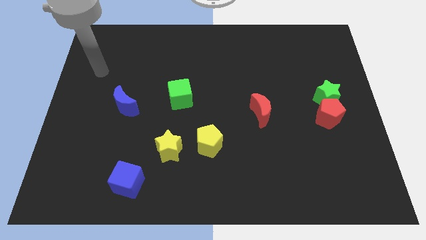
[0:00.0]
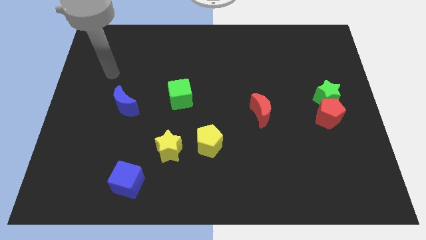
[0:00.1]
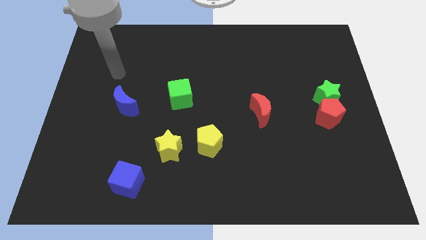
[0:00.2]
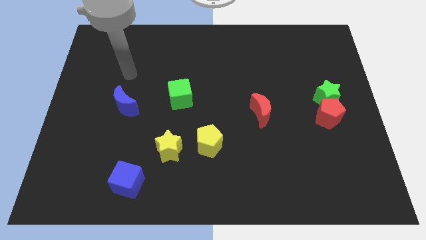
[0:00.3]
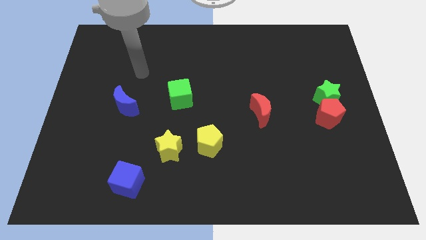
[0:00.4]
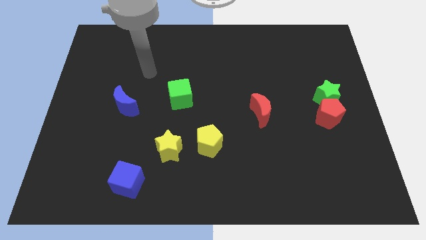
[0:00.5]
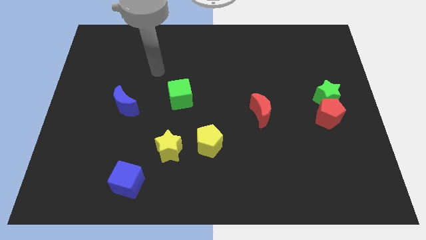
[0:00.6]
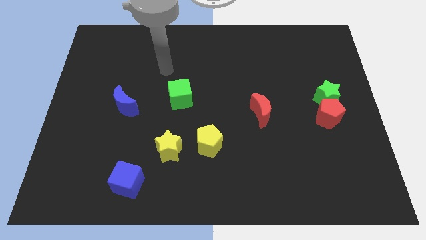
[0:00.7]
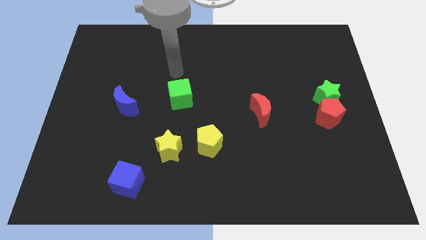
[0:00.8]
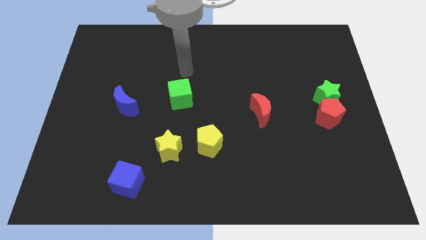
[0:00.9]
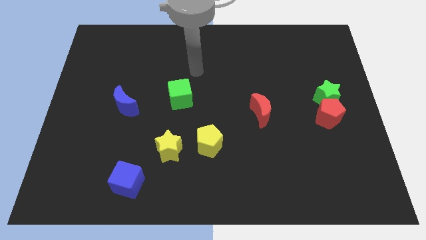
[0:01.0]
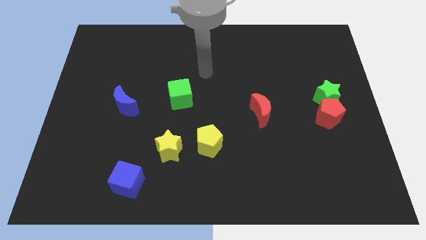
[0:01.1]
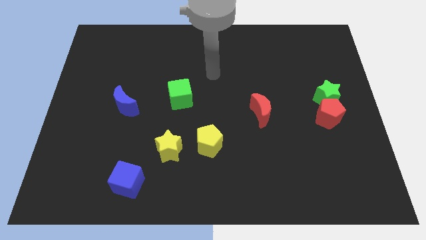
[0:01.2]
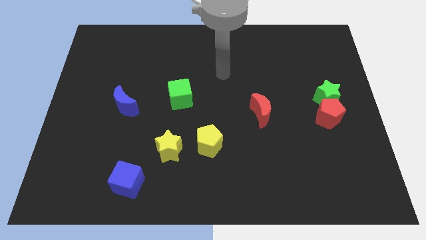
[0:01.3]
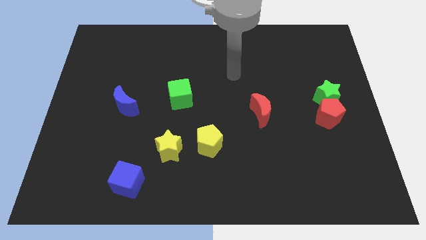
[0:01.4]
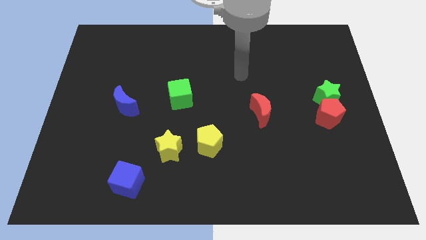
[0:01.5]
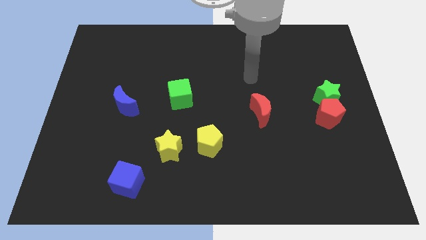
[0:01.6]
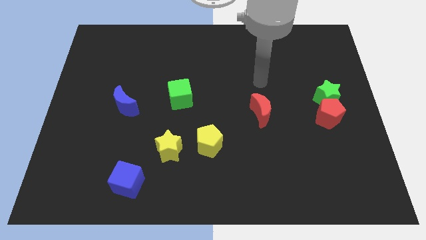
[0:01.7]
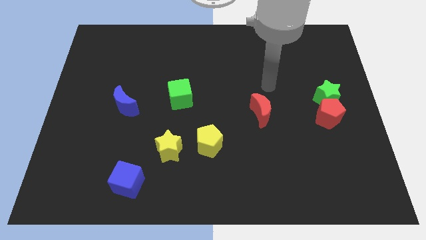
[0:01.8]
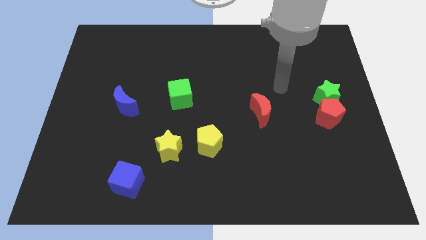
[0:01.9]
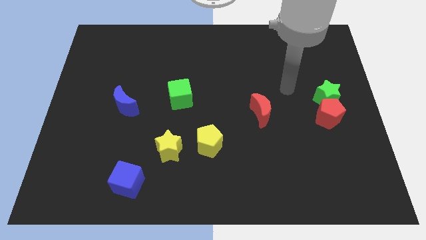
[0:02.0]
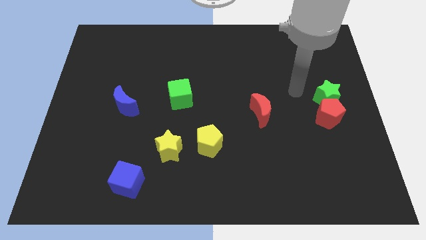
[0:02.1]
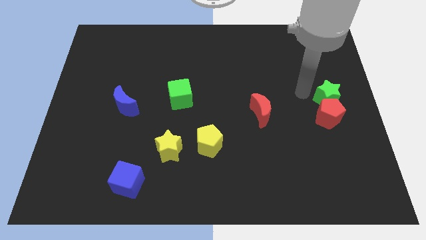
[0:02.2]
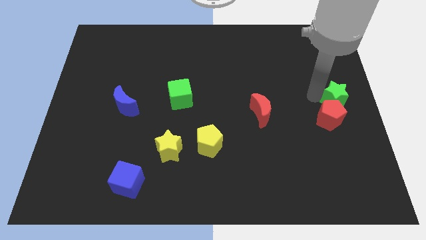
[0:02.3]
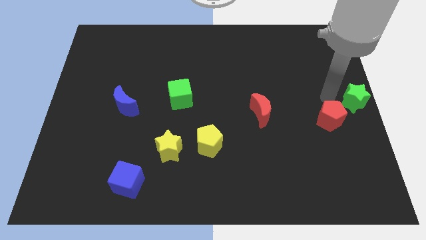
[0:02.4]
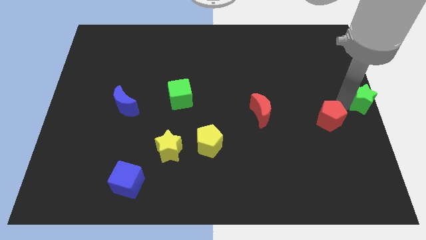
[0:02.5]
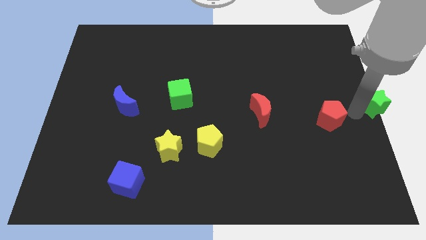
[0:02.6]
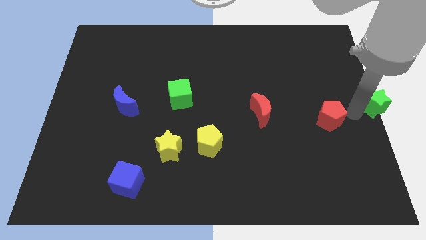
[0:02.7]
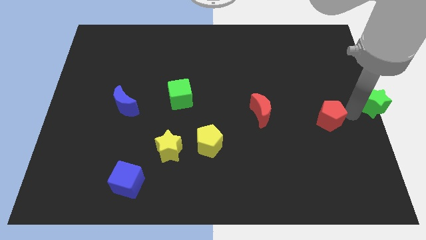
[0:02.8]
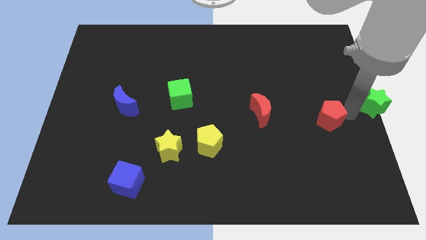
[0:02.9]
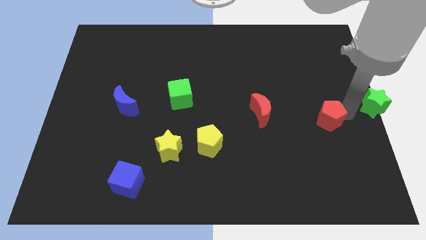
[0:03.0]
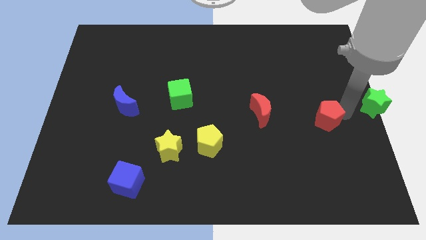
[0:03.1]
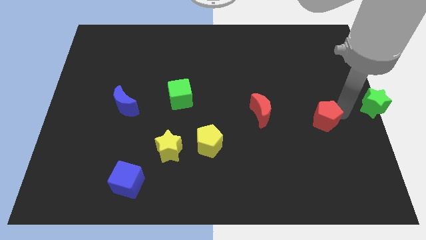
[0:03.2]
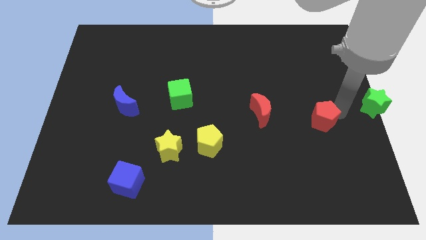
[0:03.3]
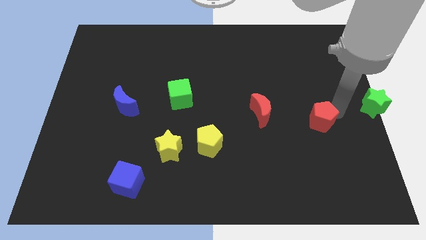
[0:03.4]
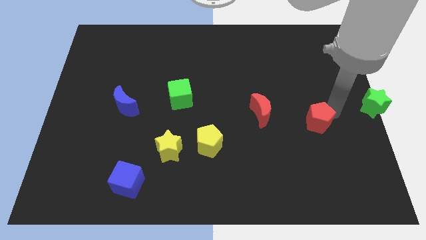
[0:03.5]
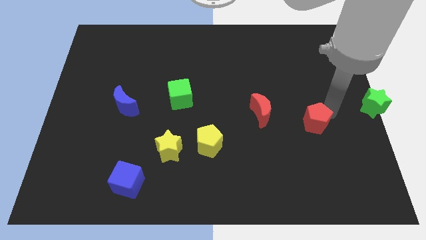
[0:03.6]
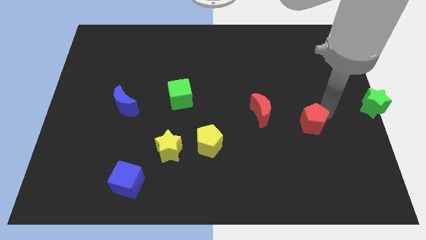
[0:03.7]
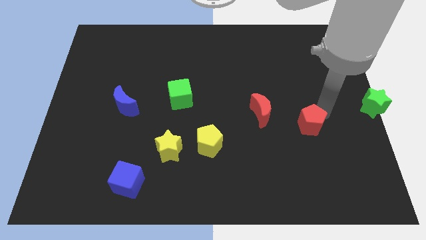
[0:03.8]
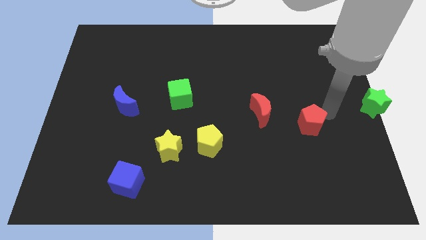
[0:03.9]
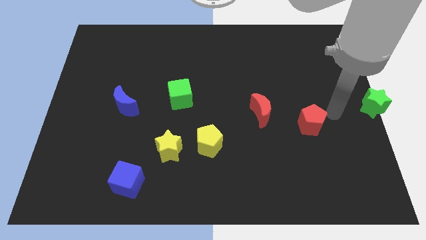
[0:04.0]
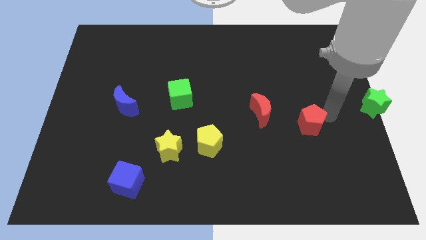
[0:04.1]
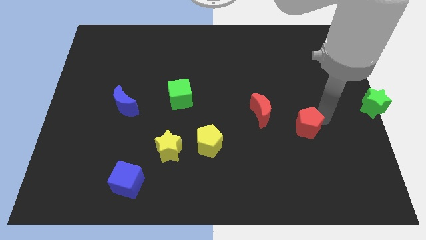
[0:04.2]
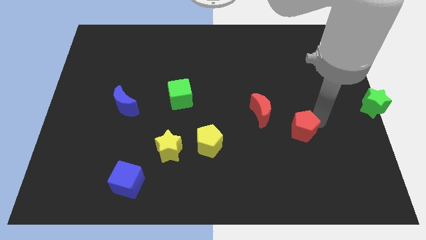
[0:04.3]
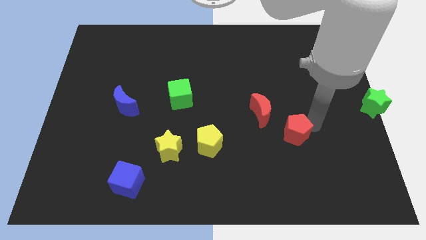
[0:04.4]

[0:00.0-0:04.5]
slightly slide the red pentagon to the left

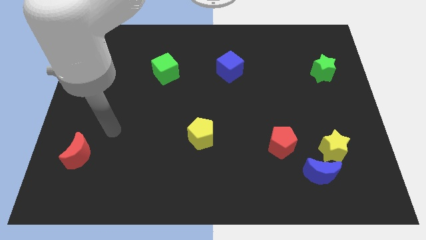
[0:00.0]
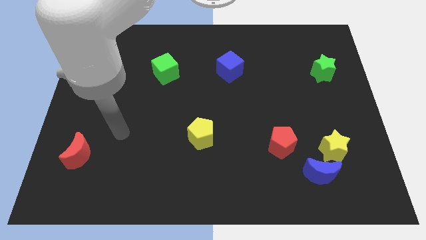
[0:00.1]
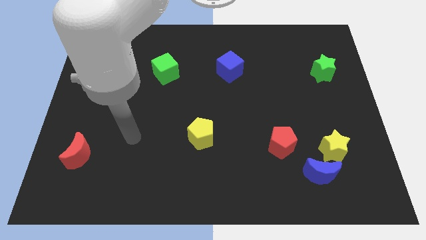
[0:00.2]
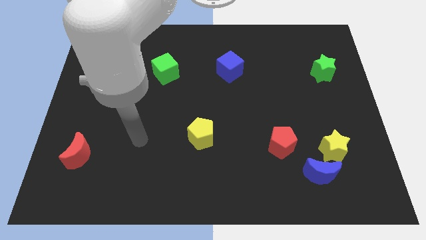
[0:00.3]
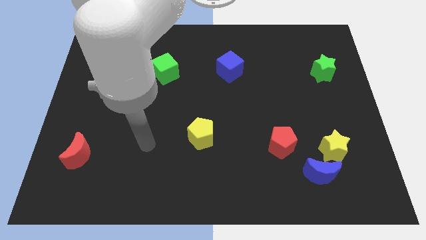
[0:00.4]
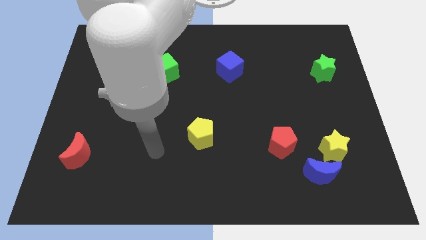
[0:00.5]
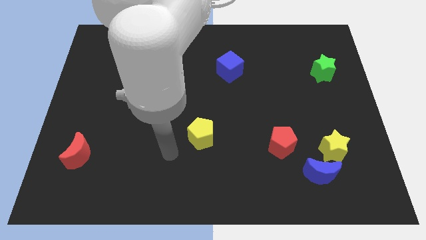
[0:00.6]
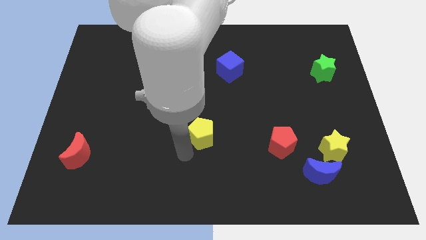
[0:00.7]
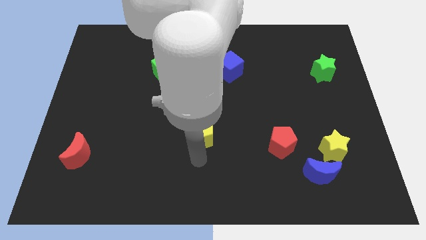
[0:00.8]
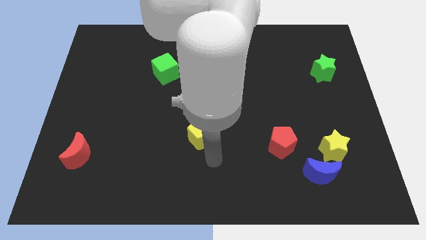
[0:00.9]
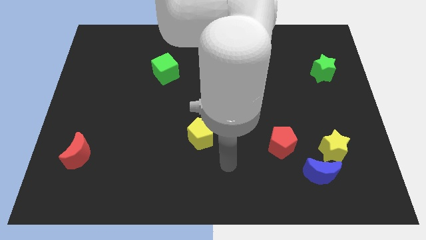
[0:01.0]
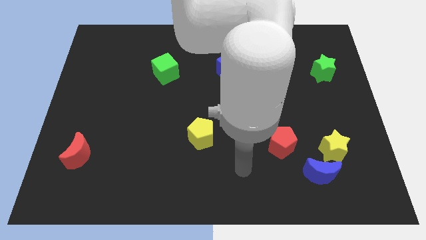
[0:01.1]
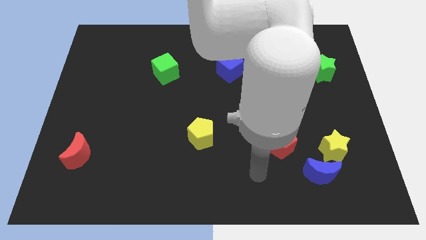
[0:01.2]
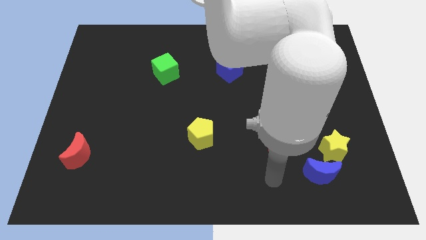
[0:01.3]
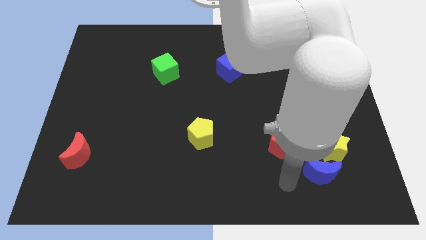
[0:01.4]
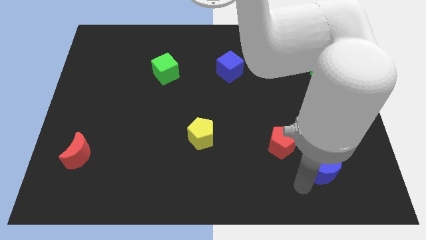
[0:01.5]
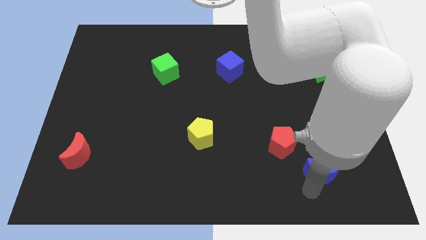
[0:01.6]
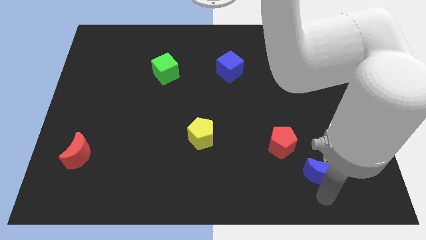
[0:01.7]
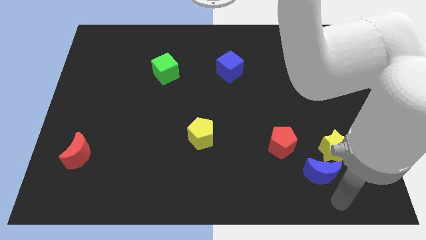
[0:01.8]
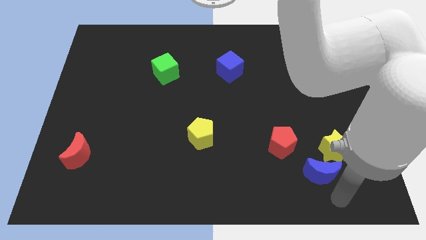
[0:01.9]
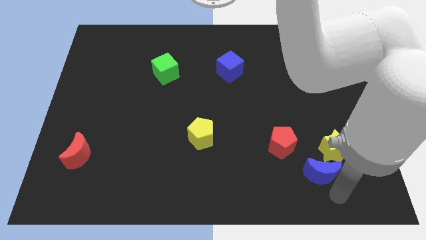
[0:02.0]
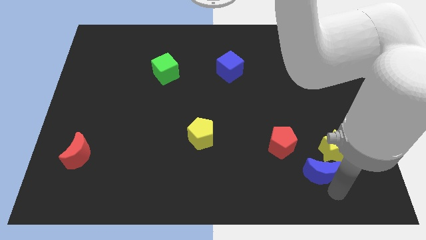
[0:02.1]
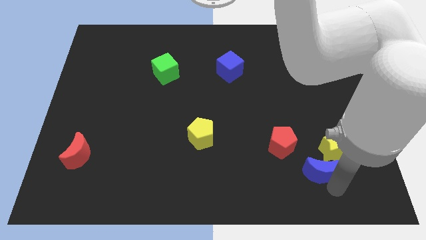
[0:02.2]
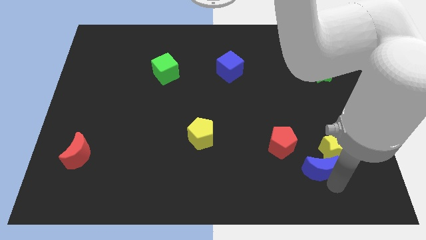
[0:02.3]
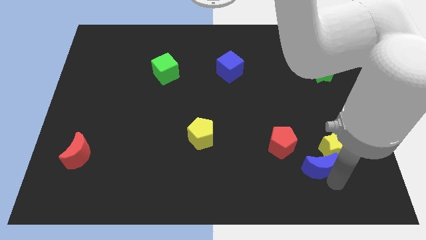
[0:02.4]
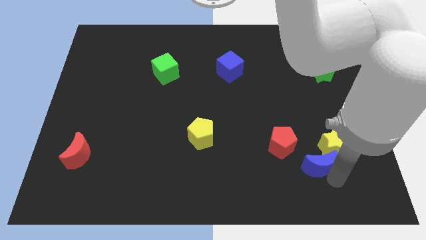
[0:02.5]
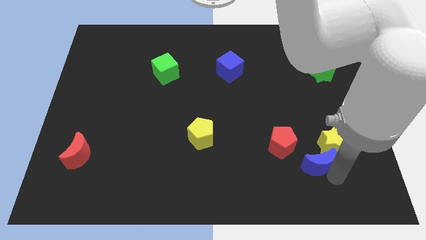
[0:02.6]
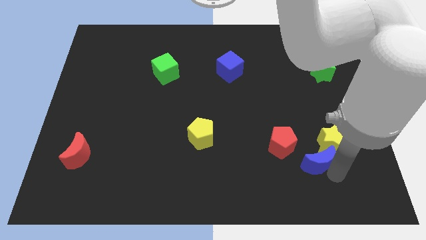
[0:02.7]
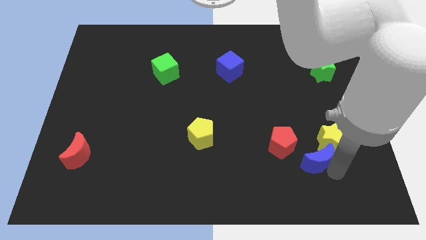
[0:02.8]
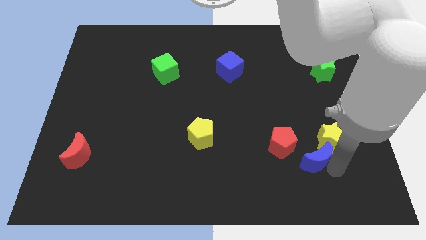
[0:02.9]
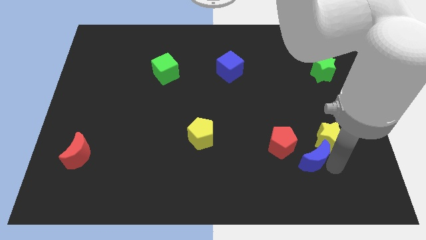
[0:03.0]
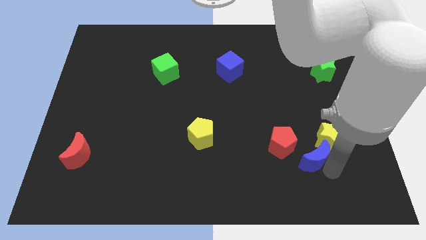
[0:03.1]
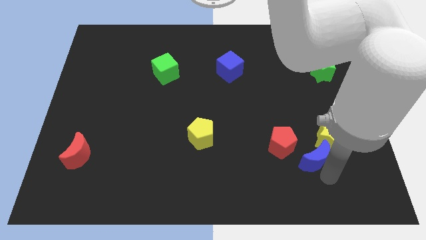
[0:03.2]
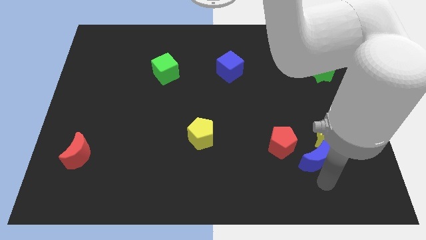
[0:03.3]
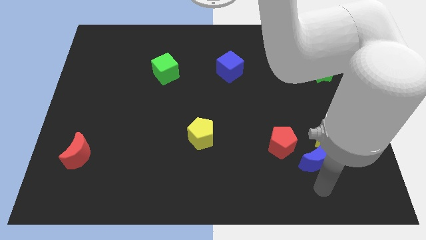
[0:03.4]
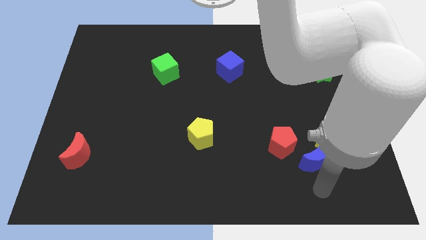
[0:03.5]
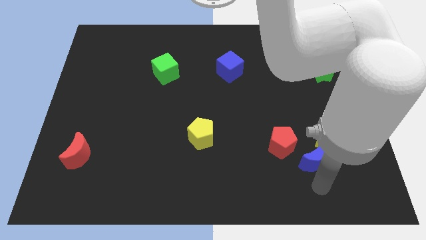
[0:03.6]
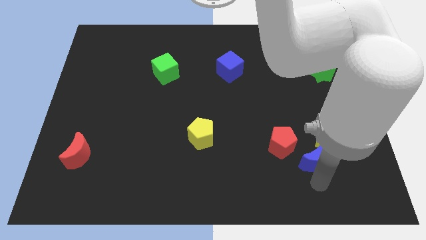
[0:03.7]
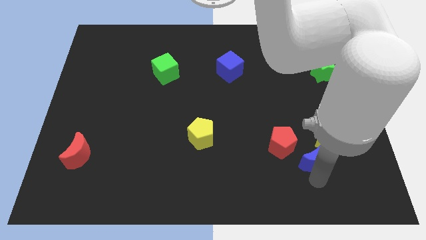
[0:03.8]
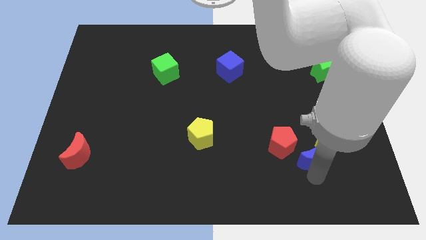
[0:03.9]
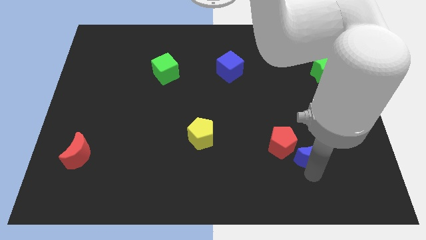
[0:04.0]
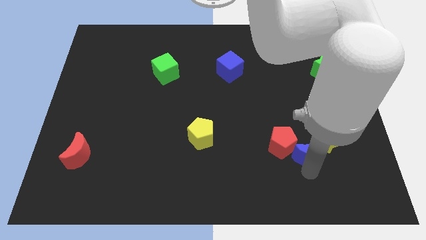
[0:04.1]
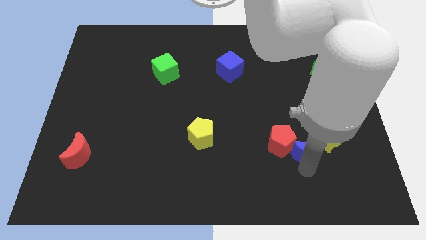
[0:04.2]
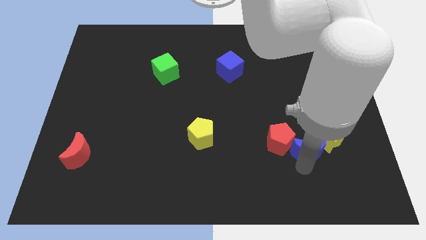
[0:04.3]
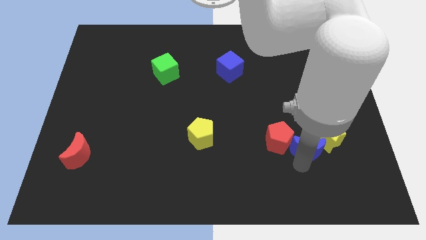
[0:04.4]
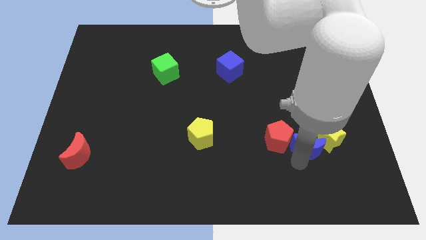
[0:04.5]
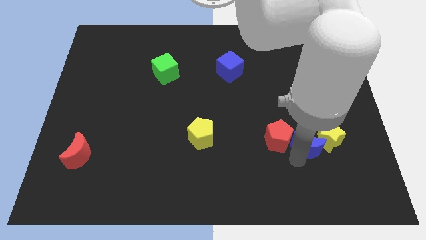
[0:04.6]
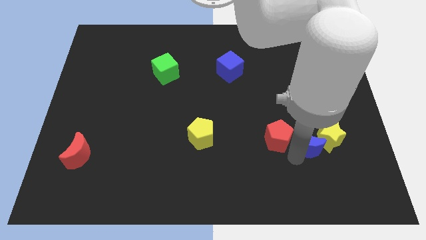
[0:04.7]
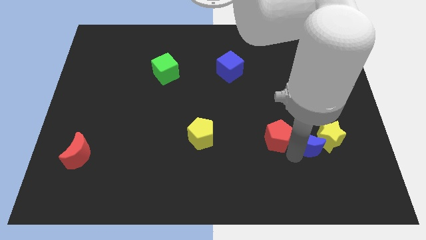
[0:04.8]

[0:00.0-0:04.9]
push the blue moon upwards a little
